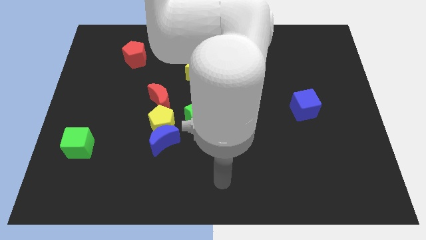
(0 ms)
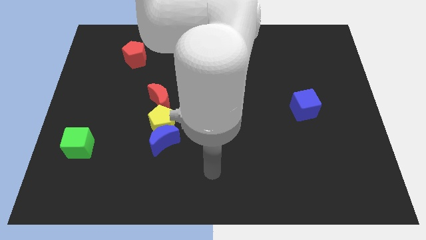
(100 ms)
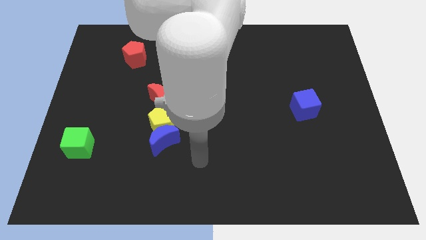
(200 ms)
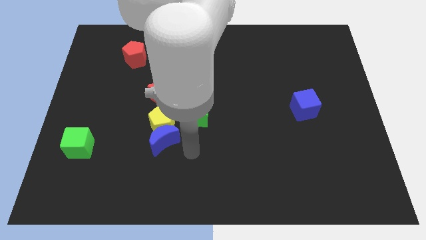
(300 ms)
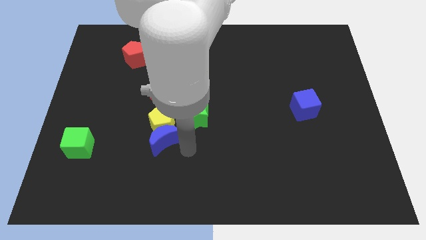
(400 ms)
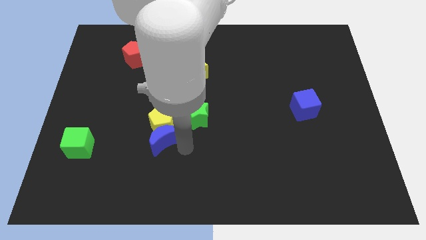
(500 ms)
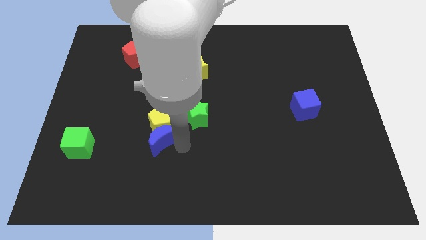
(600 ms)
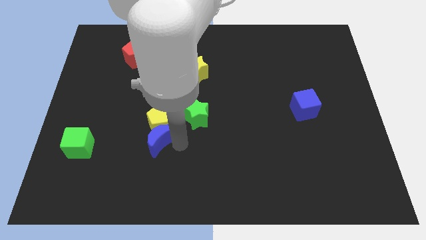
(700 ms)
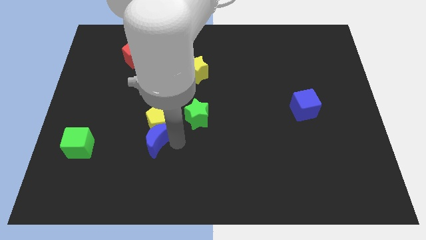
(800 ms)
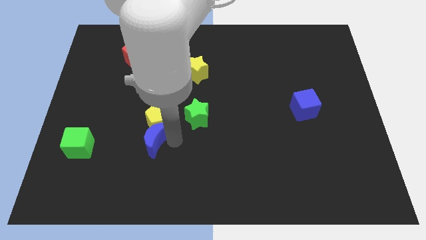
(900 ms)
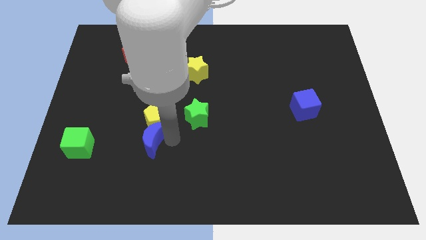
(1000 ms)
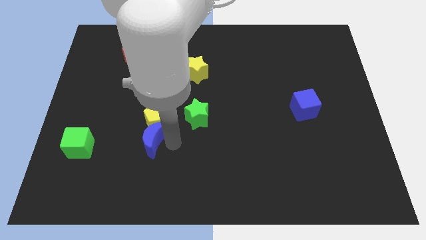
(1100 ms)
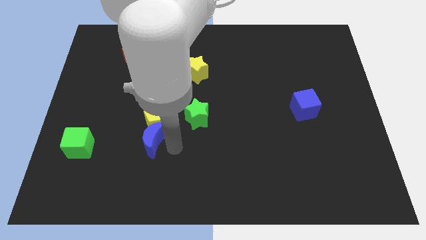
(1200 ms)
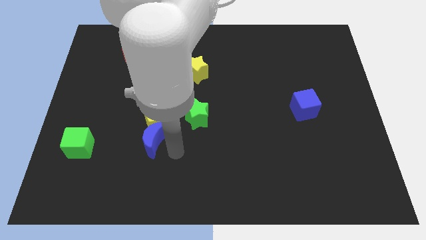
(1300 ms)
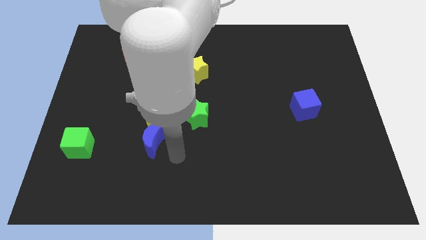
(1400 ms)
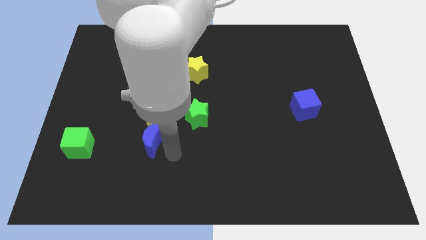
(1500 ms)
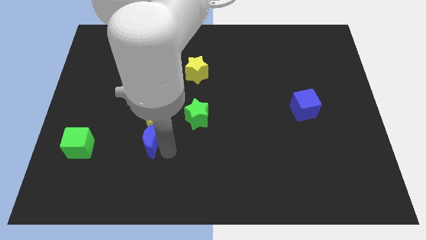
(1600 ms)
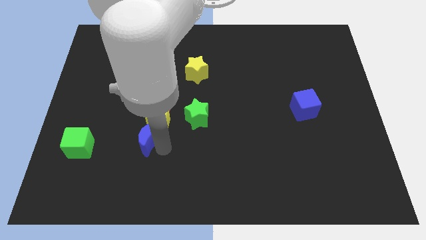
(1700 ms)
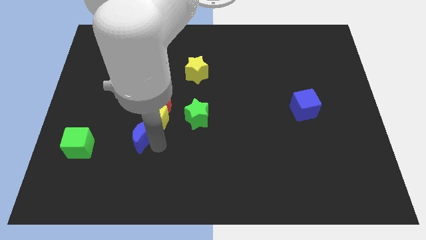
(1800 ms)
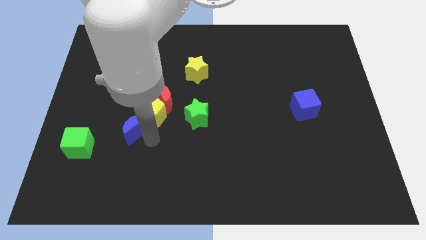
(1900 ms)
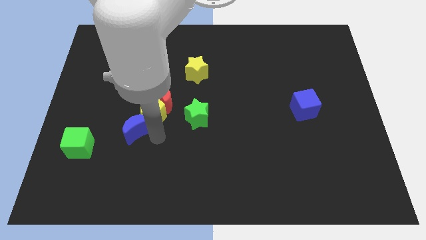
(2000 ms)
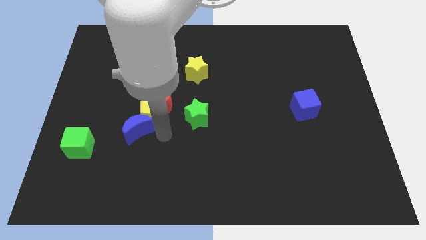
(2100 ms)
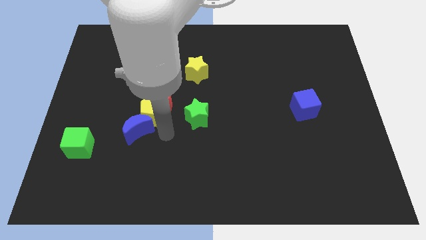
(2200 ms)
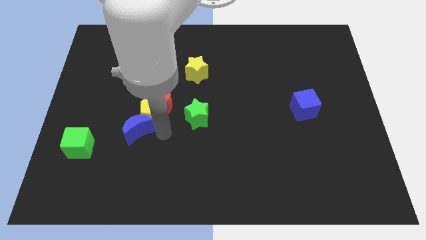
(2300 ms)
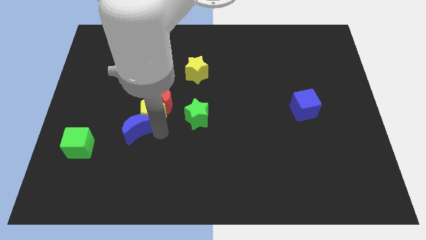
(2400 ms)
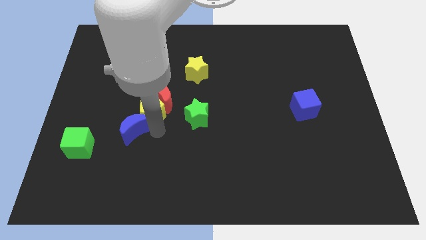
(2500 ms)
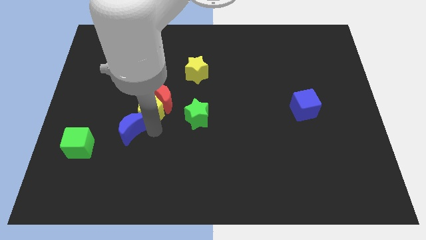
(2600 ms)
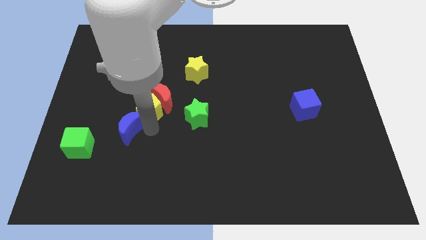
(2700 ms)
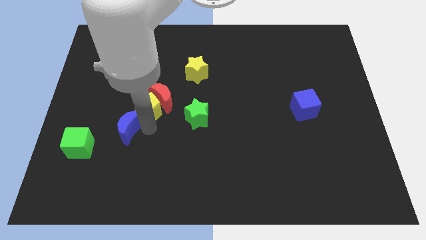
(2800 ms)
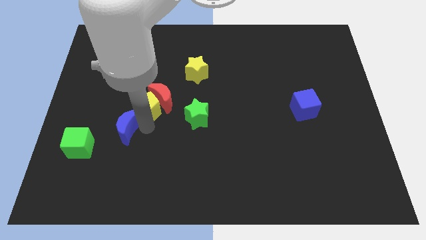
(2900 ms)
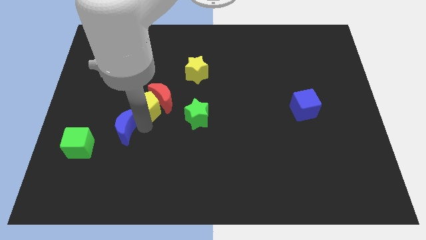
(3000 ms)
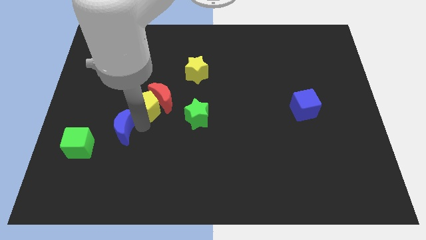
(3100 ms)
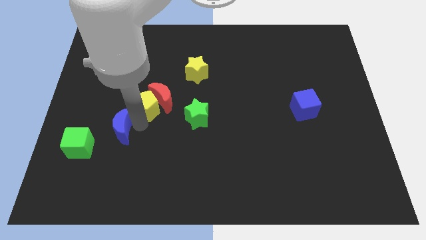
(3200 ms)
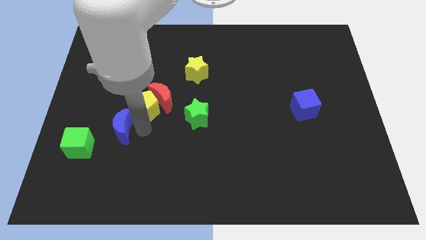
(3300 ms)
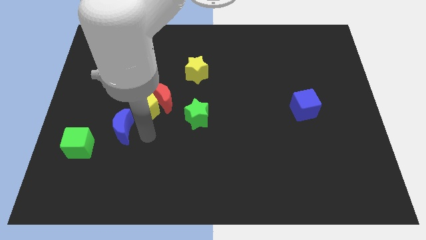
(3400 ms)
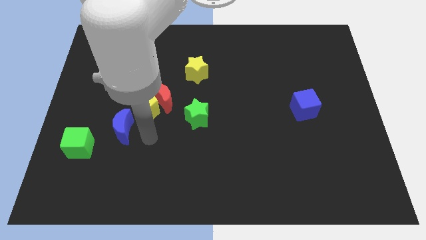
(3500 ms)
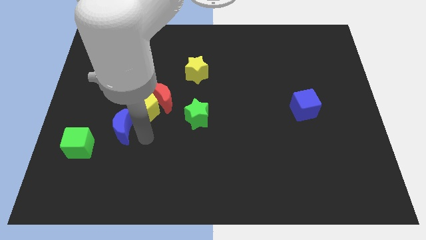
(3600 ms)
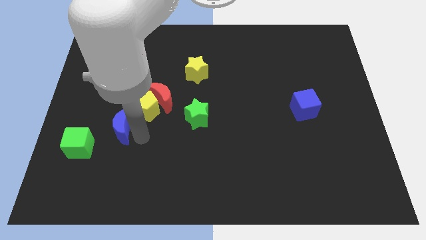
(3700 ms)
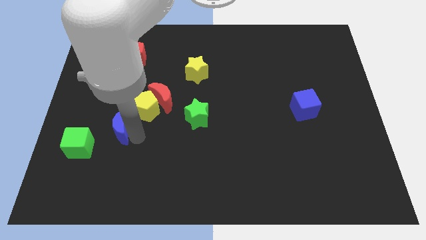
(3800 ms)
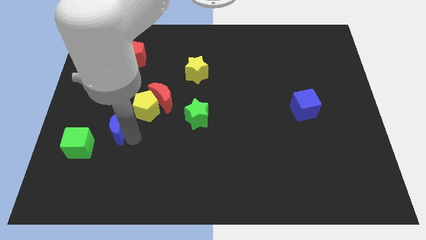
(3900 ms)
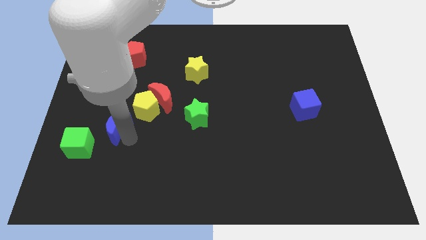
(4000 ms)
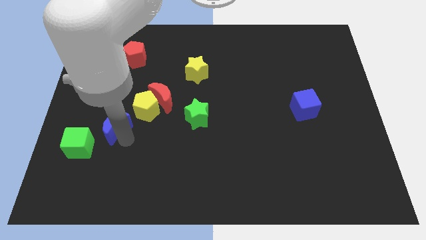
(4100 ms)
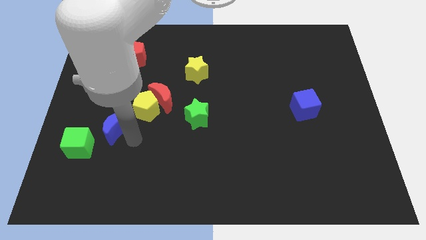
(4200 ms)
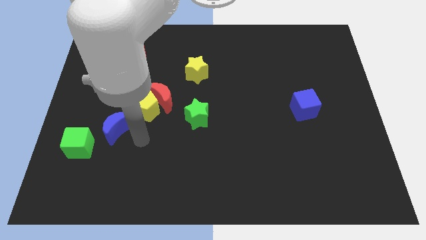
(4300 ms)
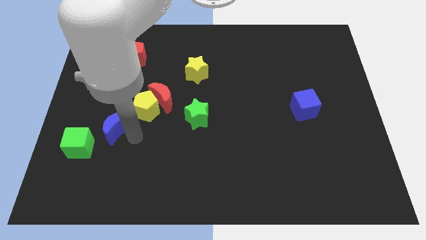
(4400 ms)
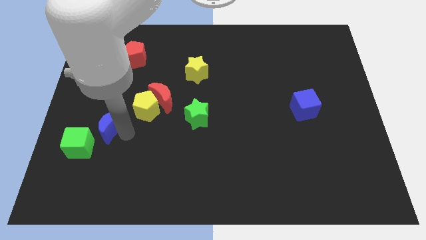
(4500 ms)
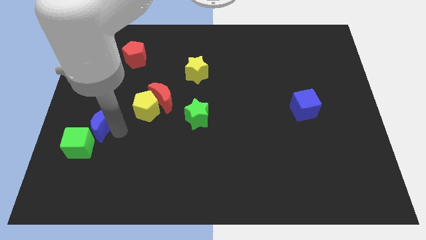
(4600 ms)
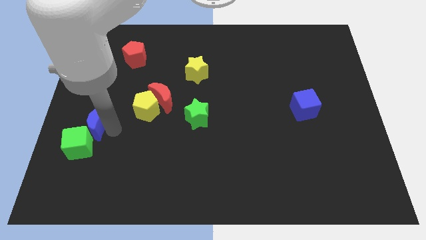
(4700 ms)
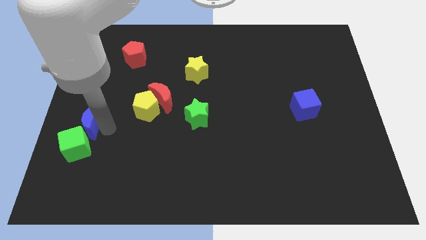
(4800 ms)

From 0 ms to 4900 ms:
put the blue moon to the left side of the board

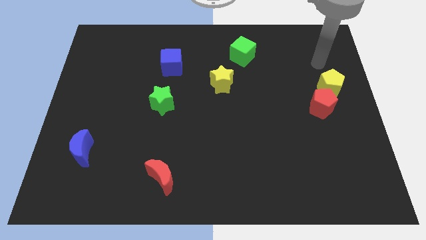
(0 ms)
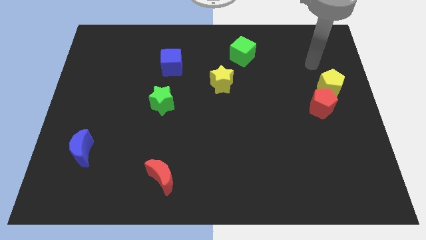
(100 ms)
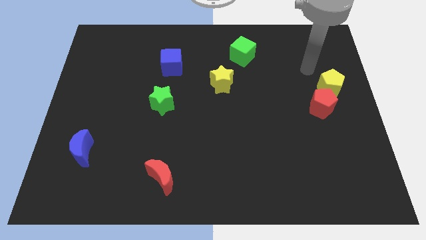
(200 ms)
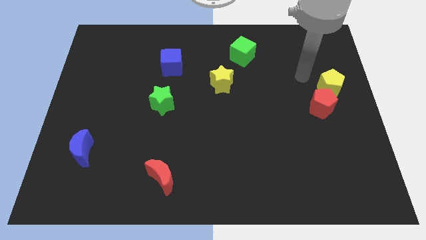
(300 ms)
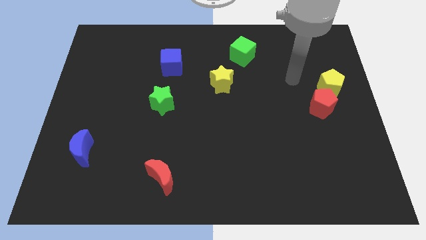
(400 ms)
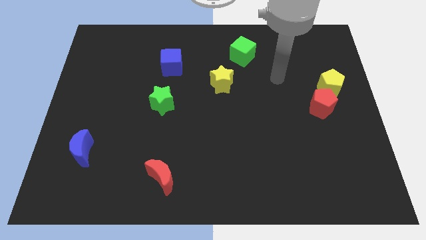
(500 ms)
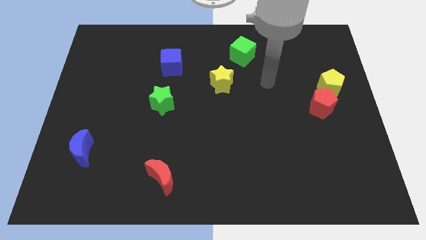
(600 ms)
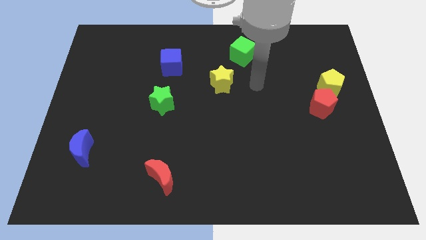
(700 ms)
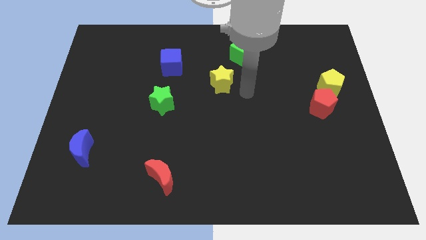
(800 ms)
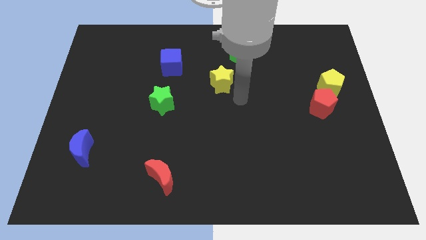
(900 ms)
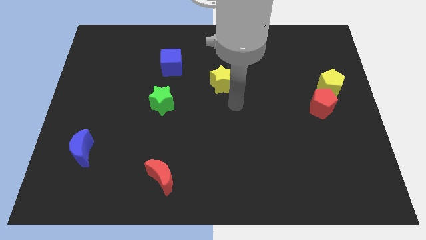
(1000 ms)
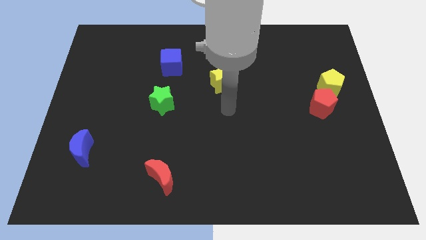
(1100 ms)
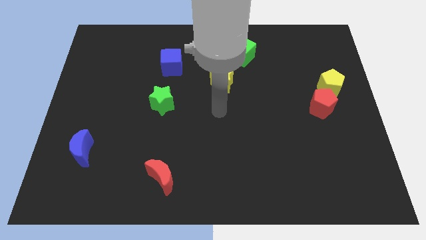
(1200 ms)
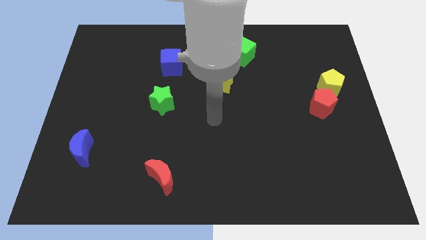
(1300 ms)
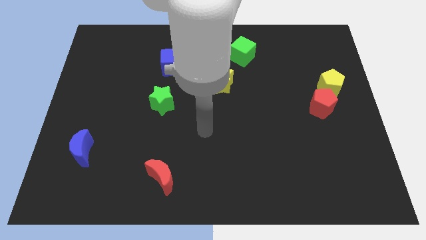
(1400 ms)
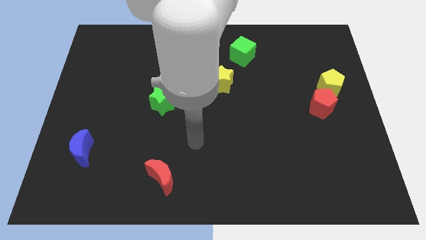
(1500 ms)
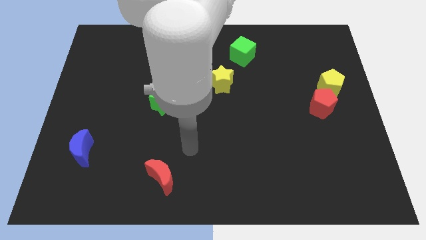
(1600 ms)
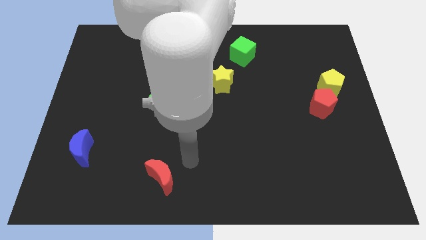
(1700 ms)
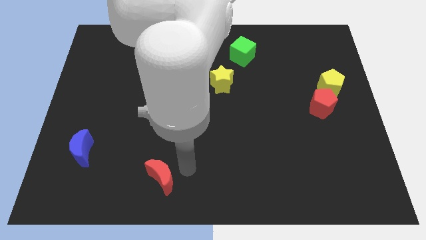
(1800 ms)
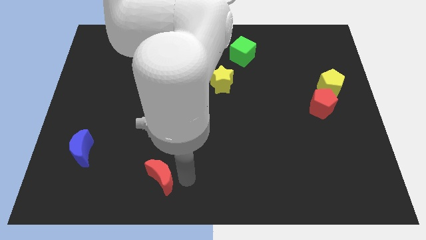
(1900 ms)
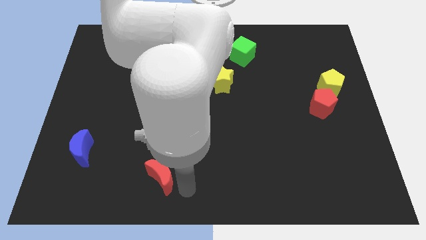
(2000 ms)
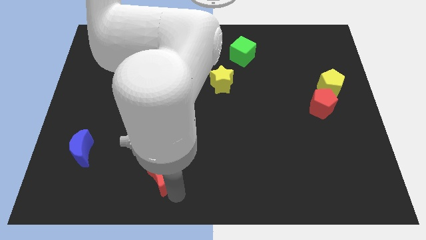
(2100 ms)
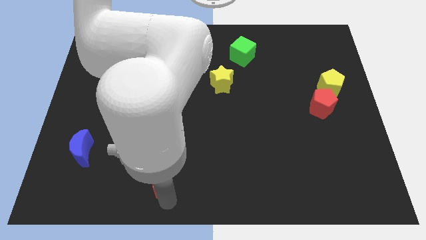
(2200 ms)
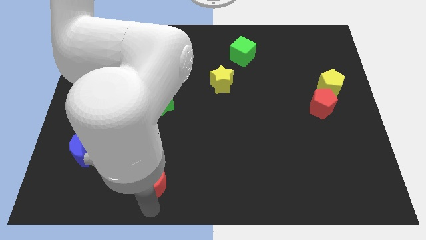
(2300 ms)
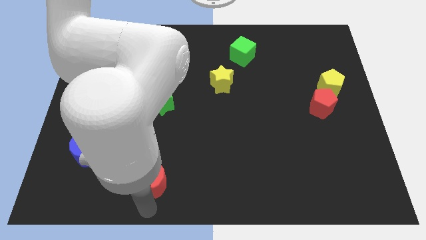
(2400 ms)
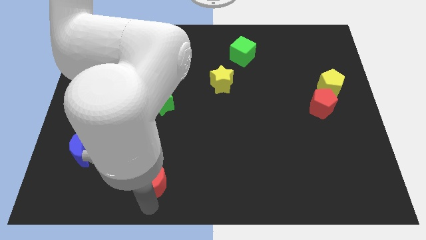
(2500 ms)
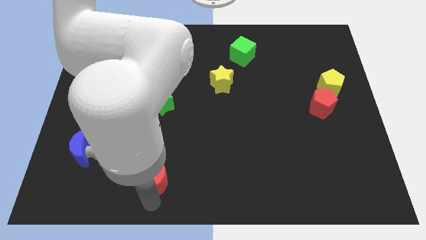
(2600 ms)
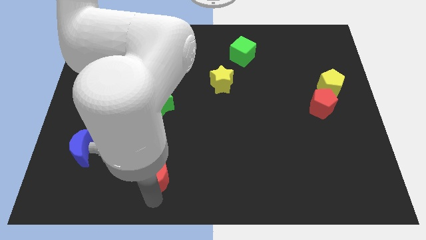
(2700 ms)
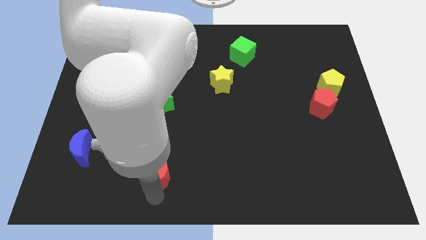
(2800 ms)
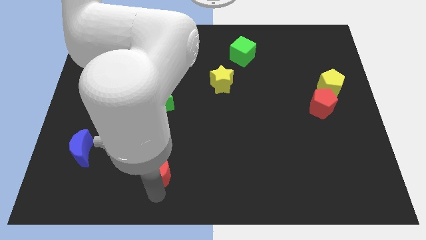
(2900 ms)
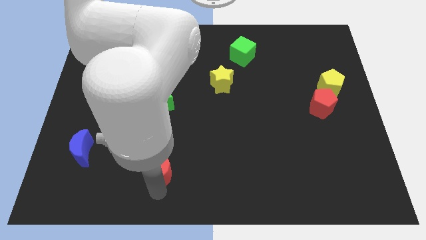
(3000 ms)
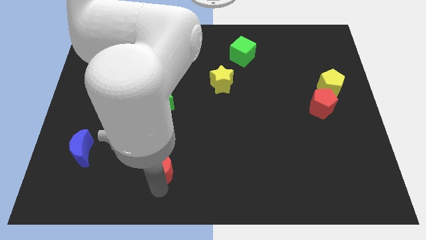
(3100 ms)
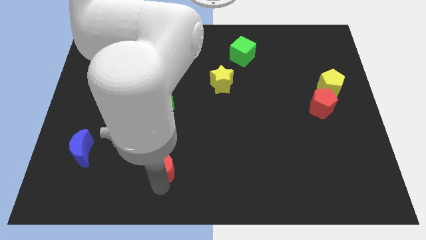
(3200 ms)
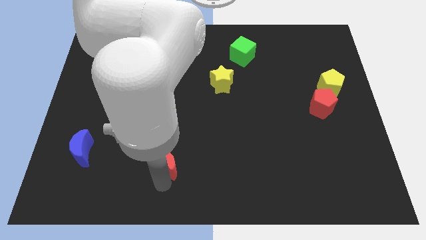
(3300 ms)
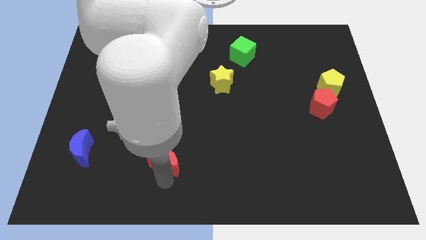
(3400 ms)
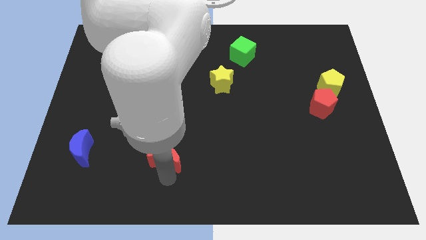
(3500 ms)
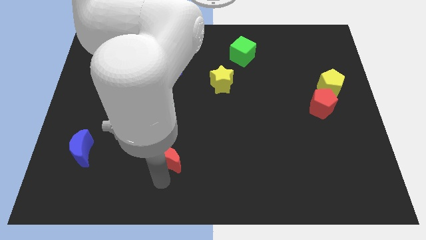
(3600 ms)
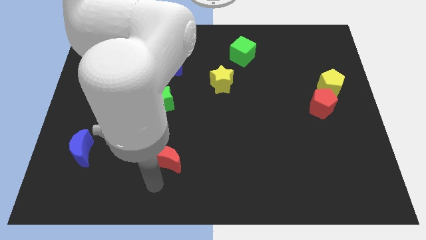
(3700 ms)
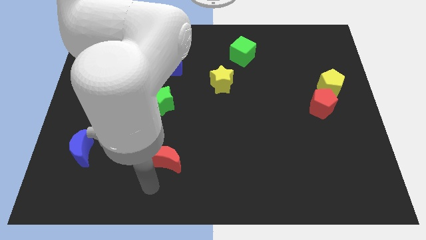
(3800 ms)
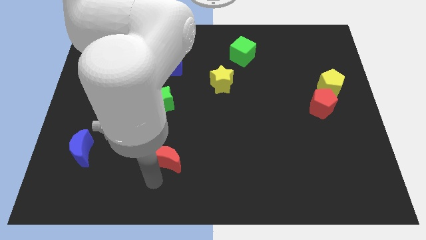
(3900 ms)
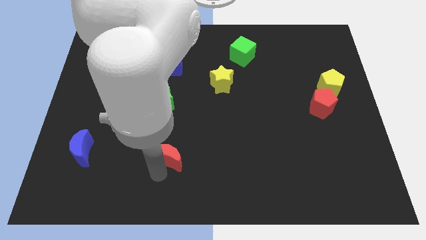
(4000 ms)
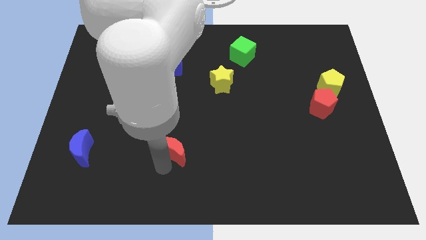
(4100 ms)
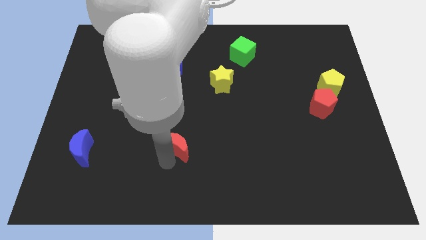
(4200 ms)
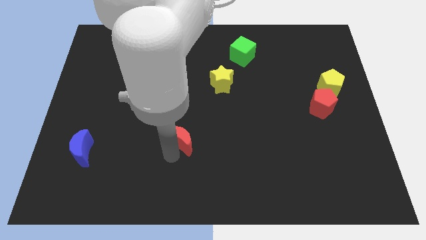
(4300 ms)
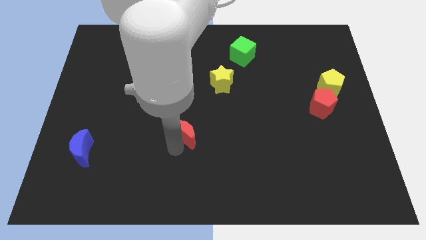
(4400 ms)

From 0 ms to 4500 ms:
slide the red moon to the middle of the board
